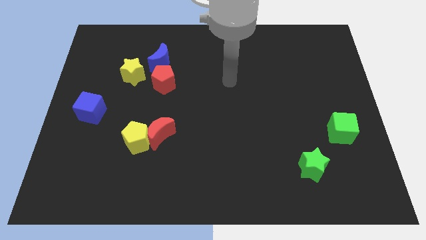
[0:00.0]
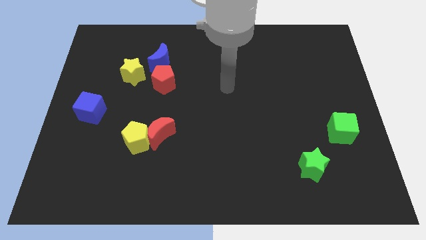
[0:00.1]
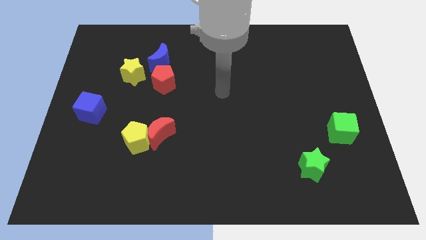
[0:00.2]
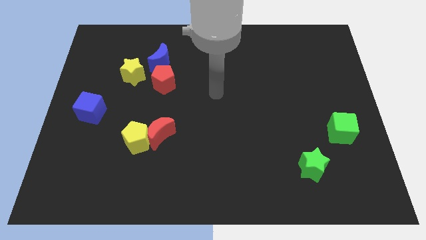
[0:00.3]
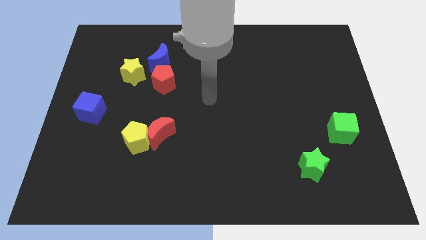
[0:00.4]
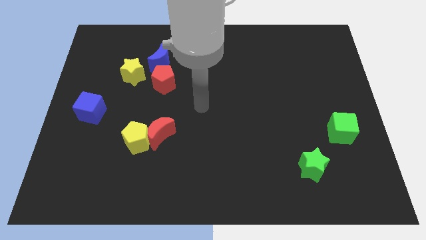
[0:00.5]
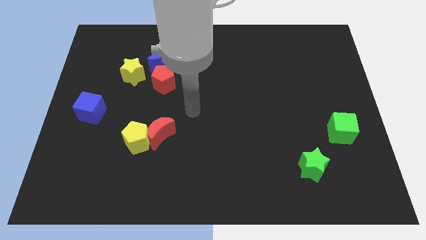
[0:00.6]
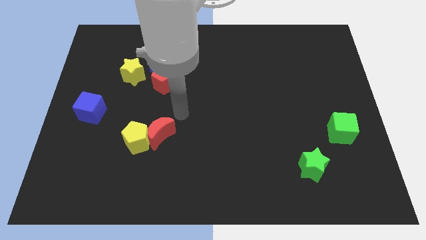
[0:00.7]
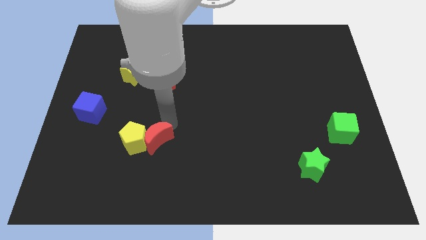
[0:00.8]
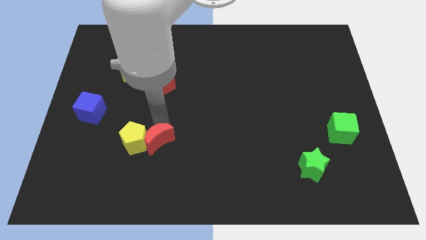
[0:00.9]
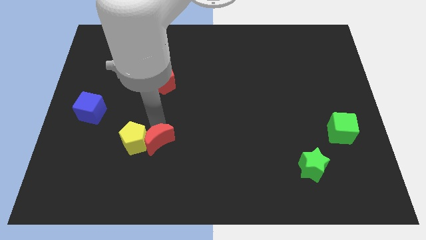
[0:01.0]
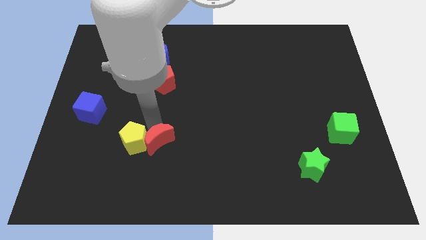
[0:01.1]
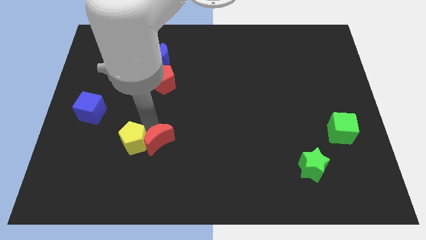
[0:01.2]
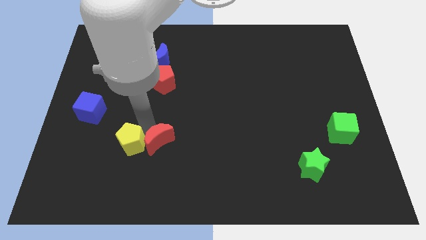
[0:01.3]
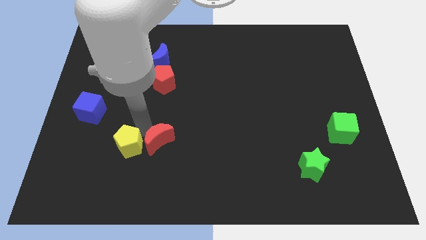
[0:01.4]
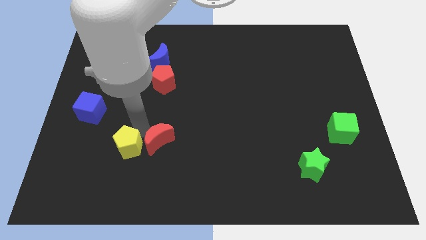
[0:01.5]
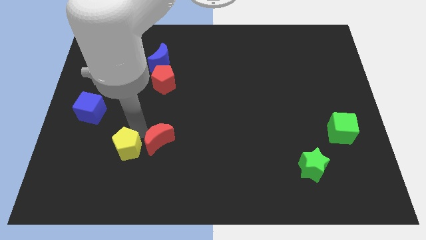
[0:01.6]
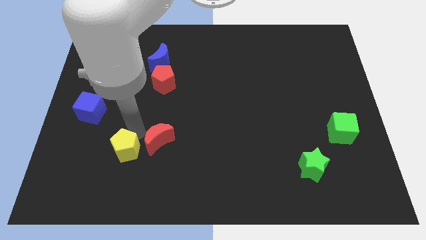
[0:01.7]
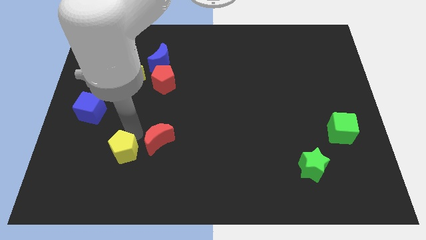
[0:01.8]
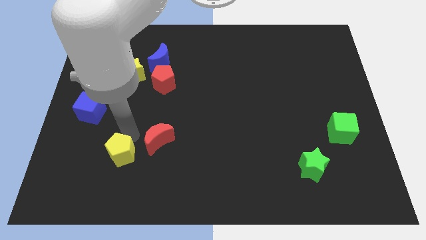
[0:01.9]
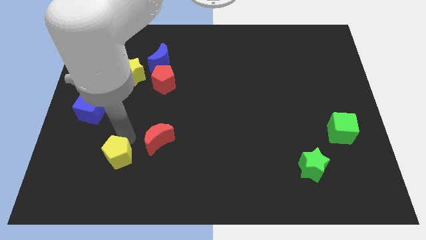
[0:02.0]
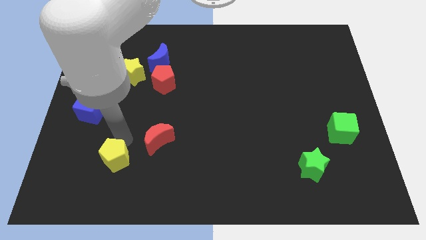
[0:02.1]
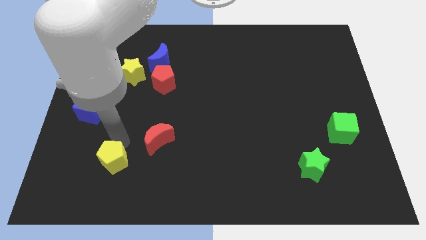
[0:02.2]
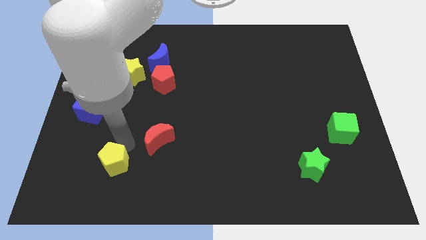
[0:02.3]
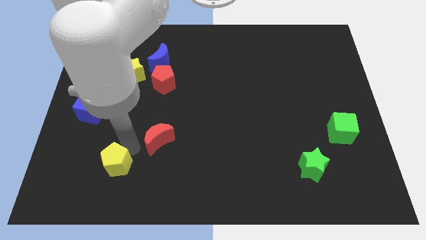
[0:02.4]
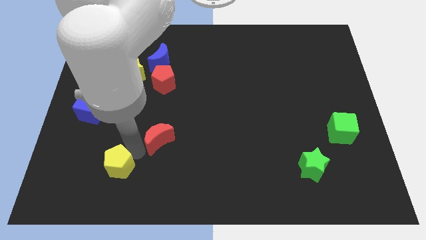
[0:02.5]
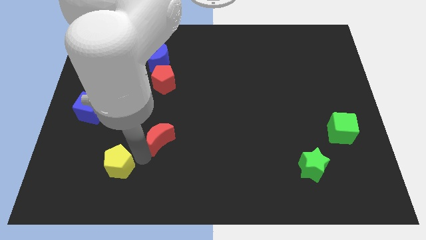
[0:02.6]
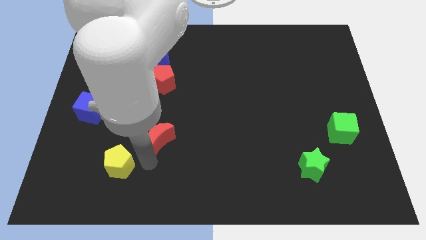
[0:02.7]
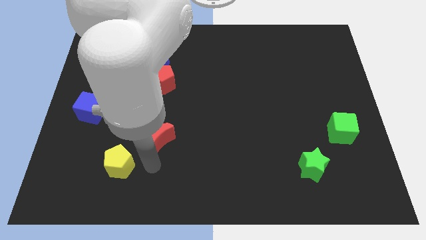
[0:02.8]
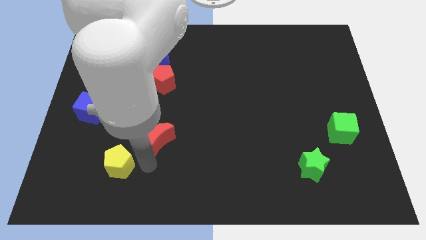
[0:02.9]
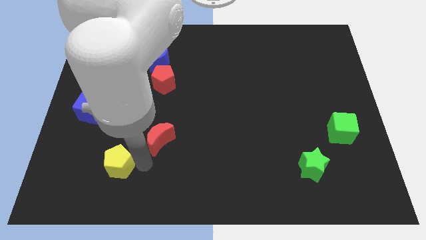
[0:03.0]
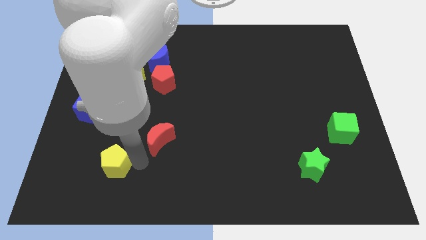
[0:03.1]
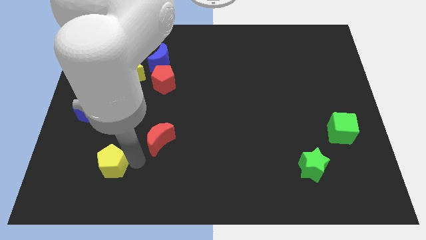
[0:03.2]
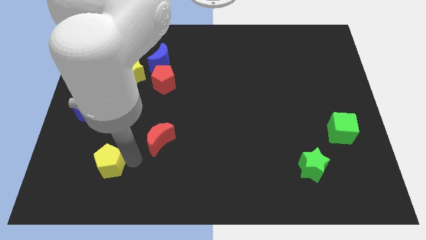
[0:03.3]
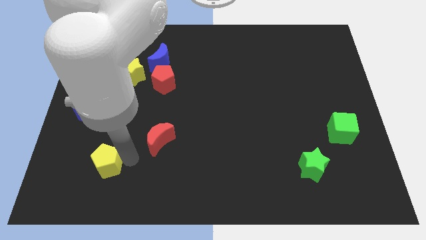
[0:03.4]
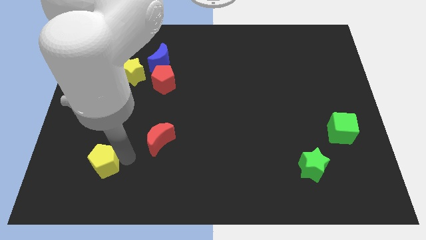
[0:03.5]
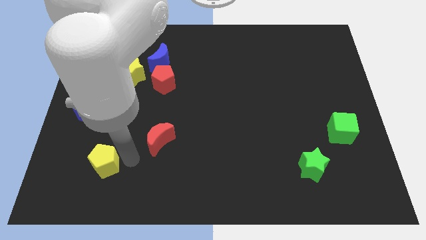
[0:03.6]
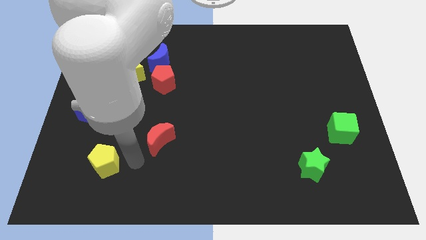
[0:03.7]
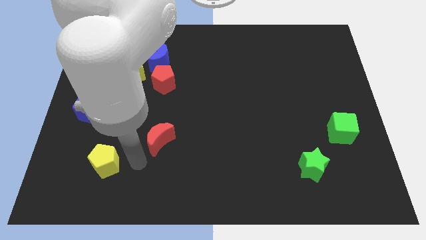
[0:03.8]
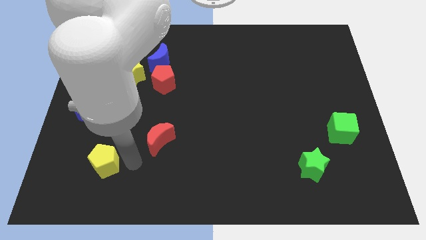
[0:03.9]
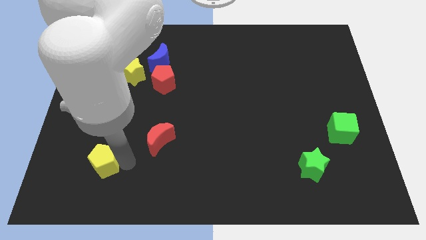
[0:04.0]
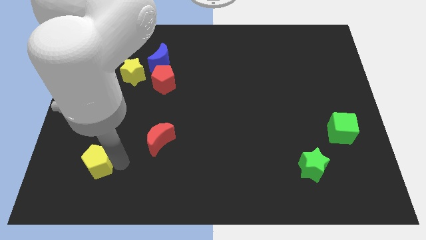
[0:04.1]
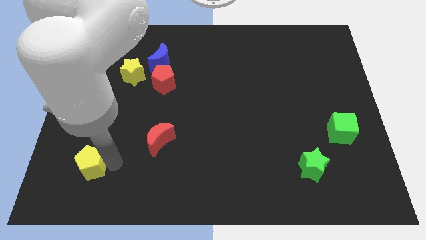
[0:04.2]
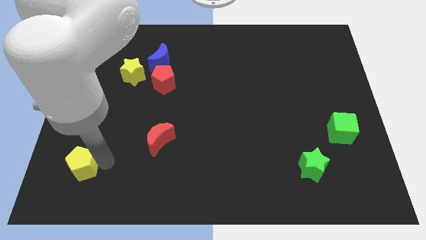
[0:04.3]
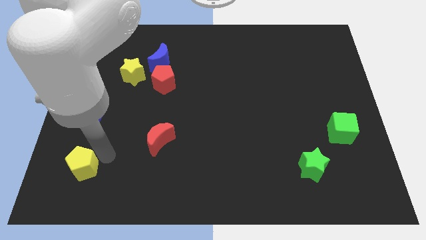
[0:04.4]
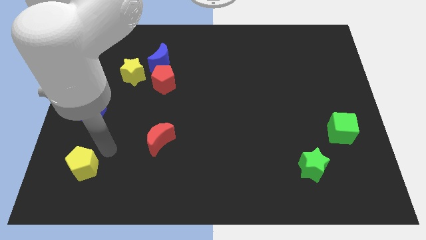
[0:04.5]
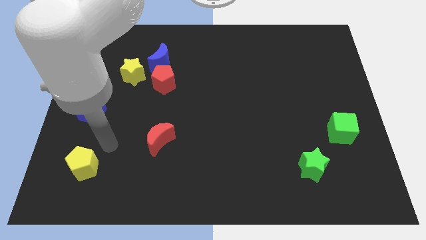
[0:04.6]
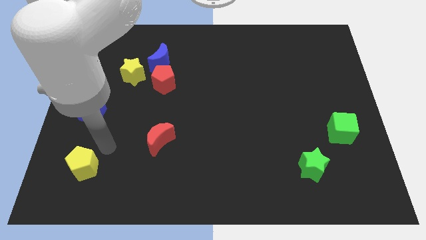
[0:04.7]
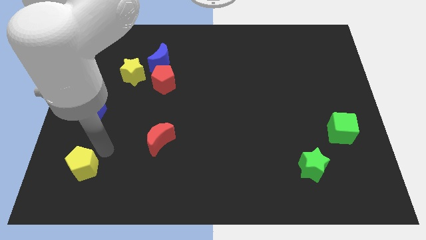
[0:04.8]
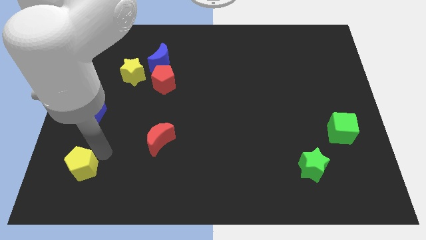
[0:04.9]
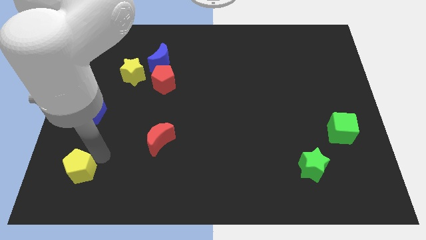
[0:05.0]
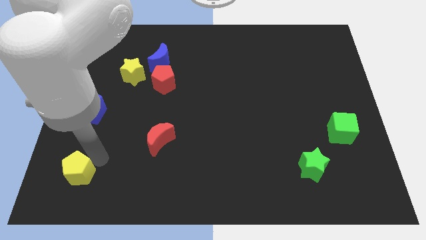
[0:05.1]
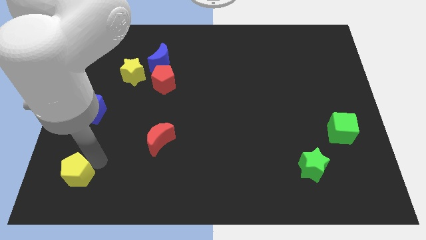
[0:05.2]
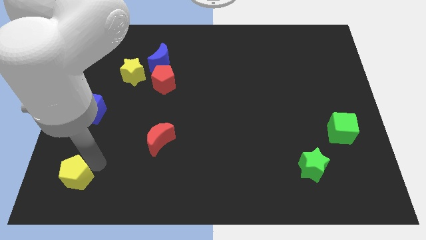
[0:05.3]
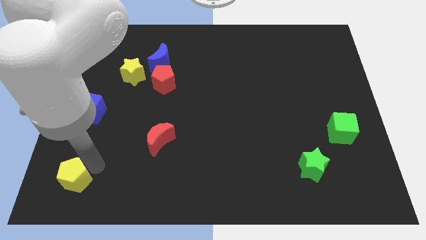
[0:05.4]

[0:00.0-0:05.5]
push the yellow pentagon to the bottom left

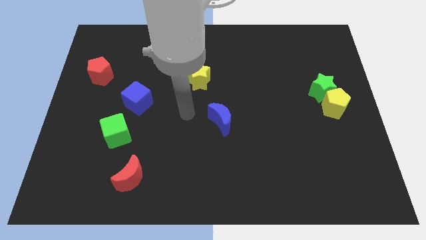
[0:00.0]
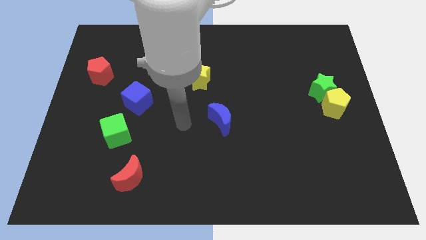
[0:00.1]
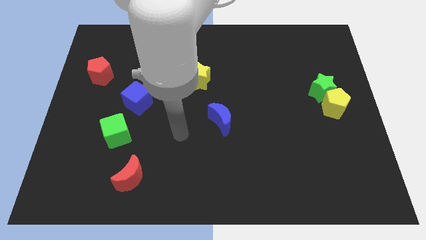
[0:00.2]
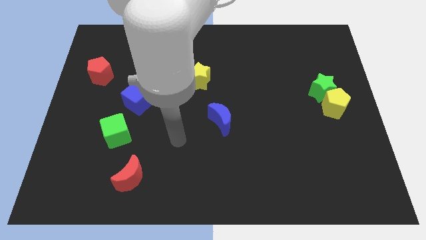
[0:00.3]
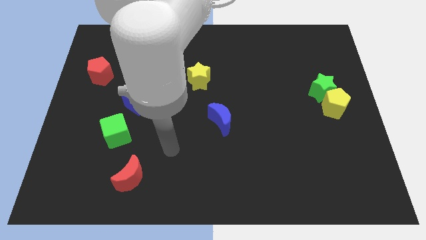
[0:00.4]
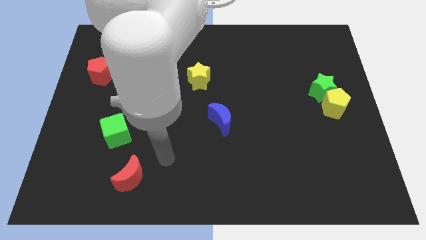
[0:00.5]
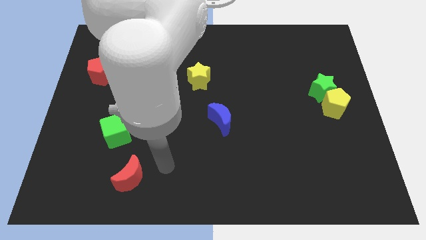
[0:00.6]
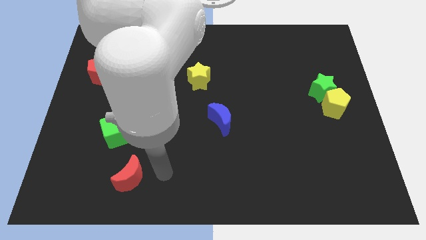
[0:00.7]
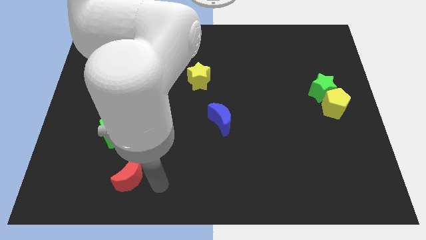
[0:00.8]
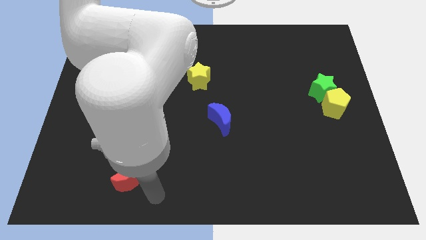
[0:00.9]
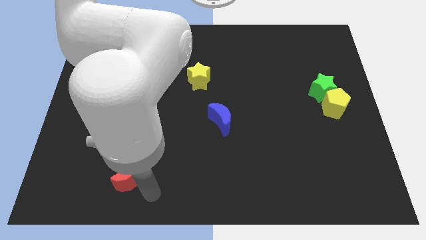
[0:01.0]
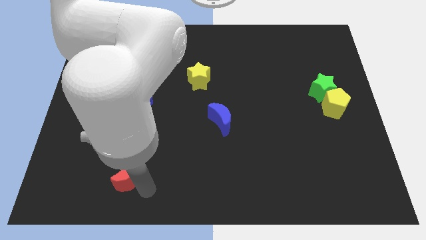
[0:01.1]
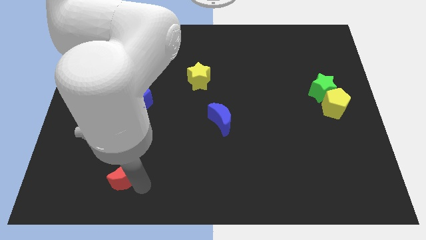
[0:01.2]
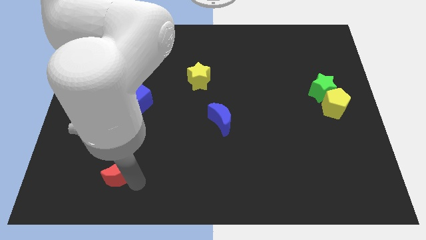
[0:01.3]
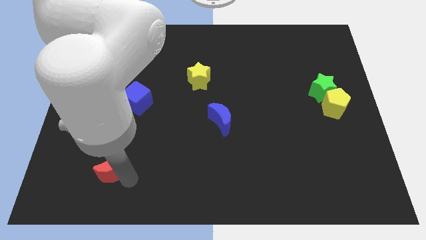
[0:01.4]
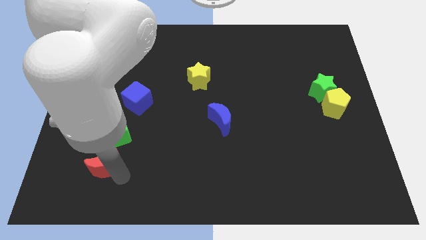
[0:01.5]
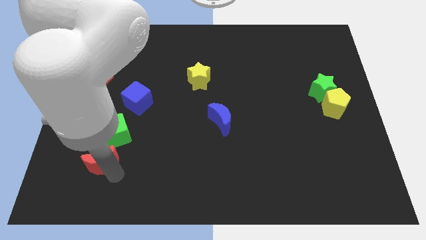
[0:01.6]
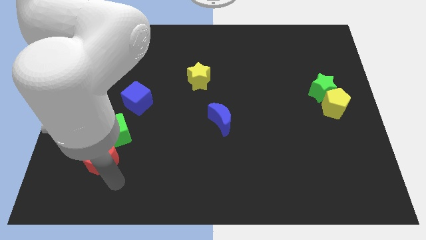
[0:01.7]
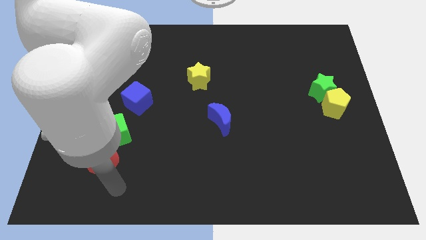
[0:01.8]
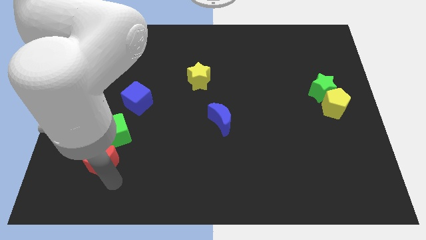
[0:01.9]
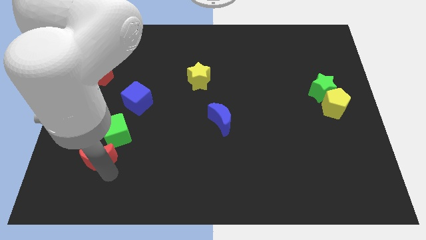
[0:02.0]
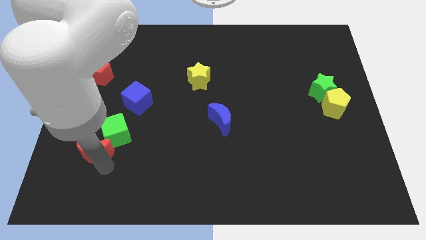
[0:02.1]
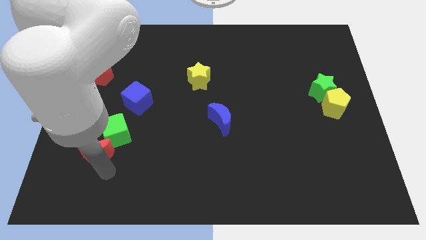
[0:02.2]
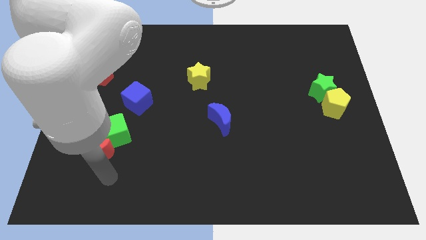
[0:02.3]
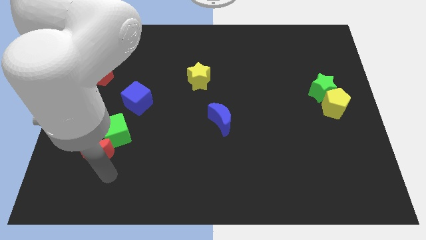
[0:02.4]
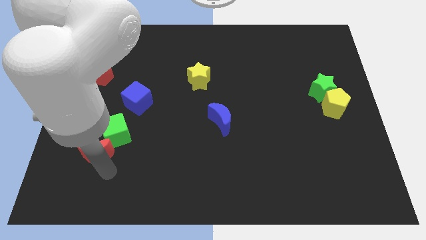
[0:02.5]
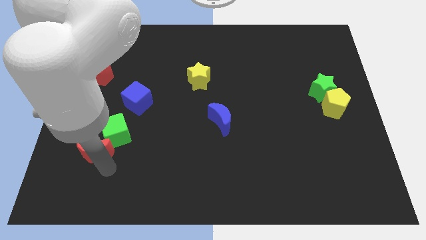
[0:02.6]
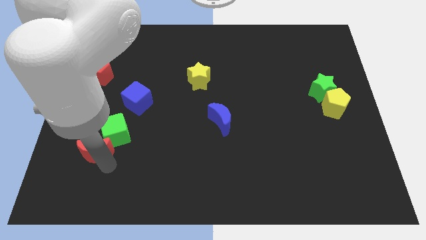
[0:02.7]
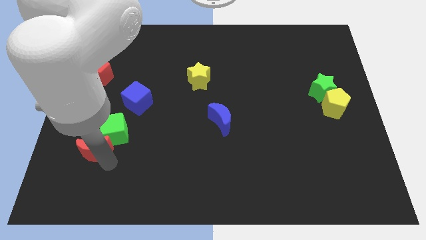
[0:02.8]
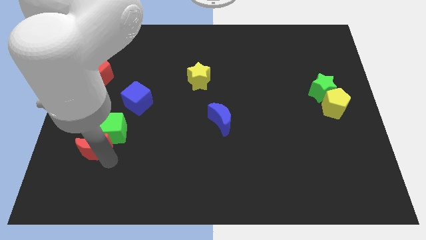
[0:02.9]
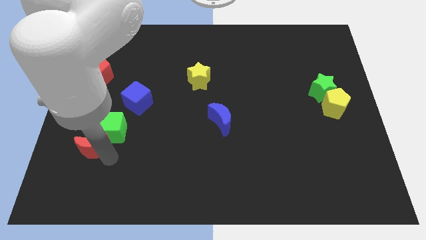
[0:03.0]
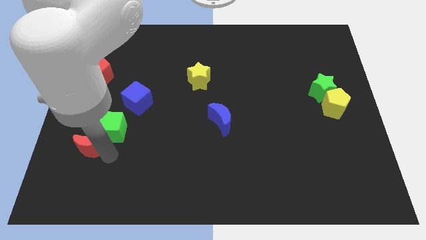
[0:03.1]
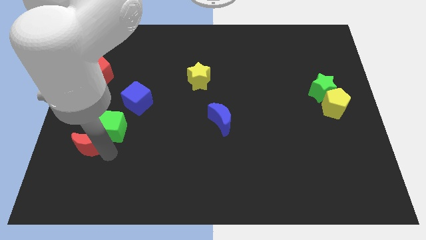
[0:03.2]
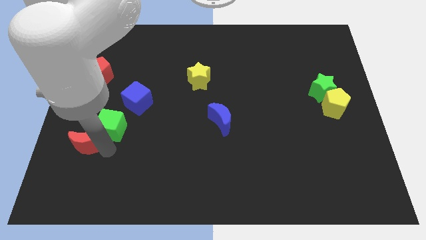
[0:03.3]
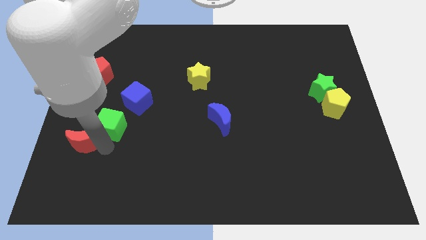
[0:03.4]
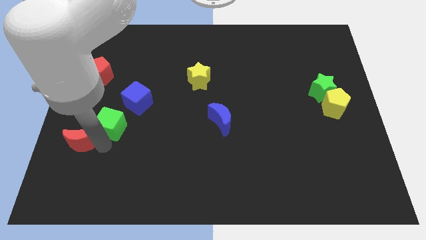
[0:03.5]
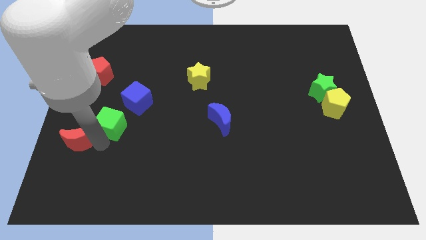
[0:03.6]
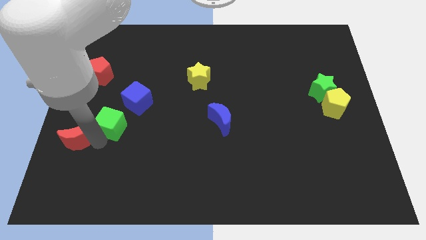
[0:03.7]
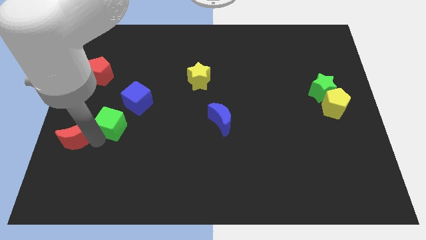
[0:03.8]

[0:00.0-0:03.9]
move the red moon to the left side of the board
